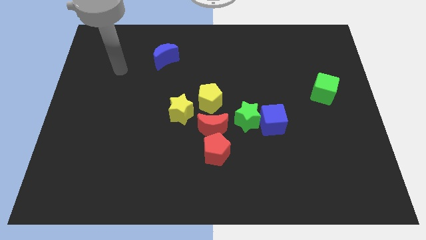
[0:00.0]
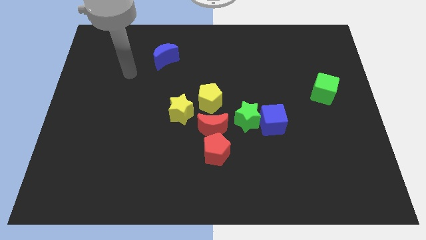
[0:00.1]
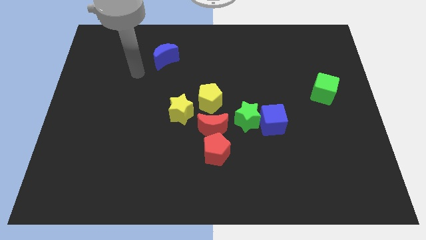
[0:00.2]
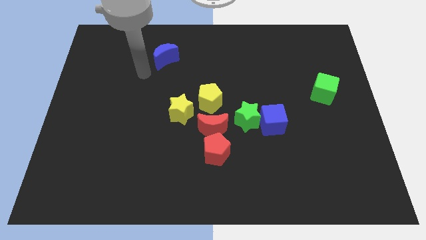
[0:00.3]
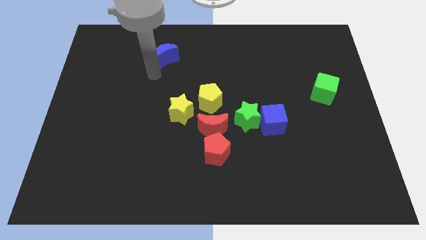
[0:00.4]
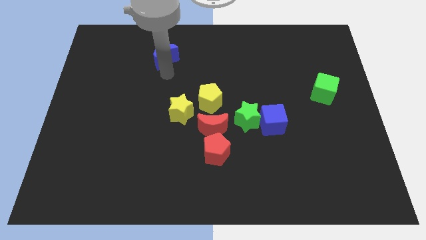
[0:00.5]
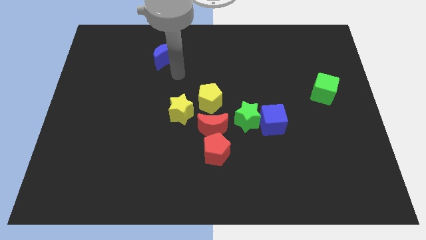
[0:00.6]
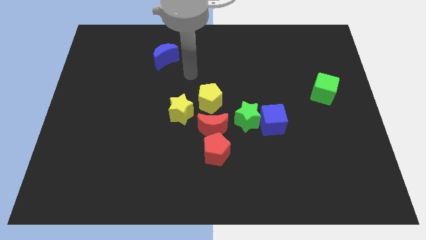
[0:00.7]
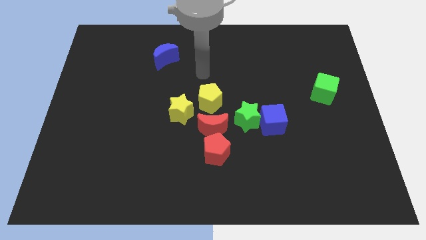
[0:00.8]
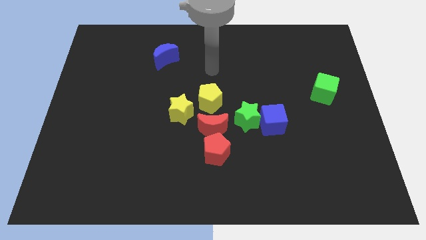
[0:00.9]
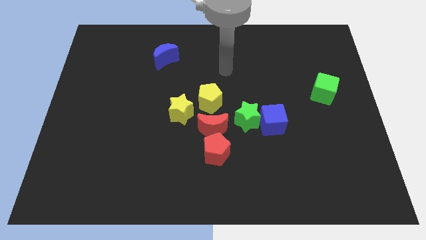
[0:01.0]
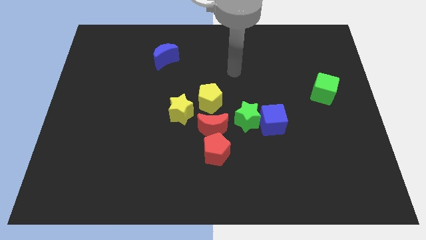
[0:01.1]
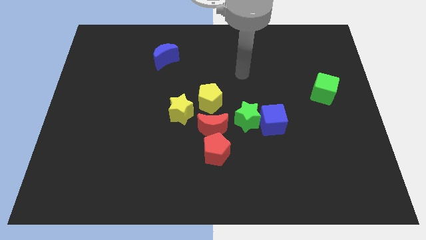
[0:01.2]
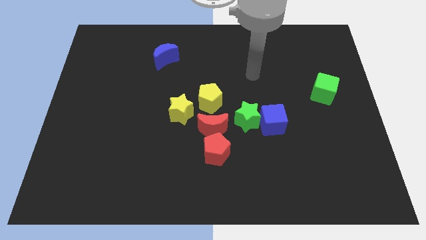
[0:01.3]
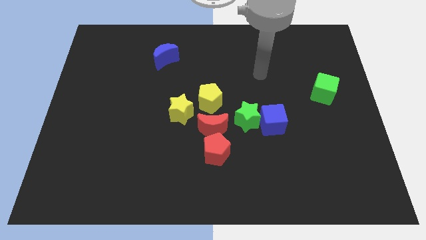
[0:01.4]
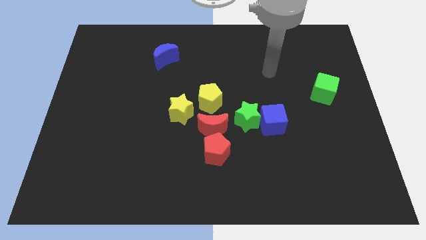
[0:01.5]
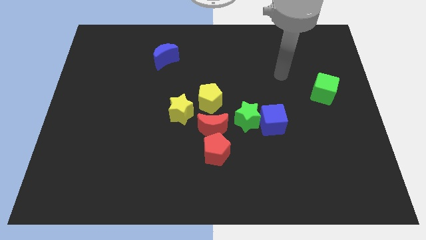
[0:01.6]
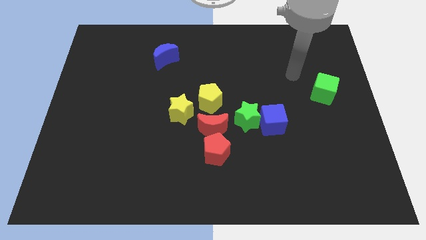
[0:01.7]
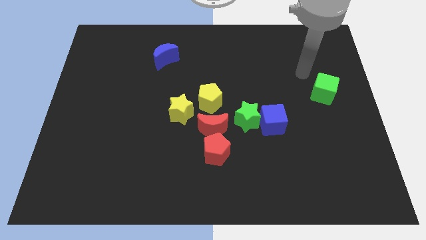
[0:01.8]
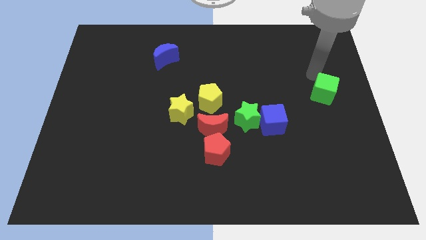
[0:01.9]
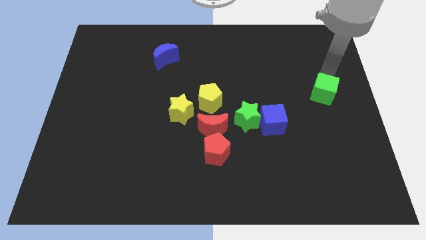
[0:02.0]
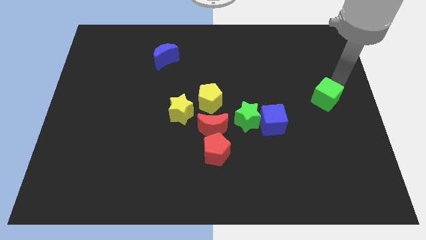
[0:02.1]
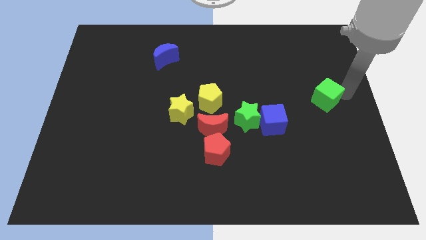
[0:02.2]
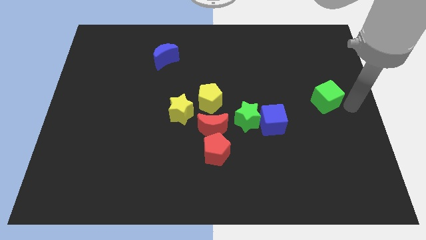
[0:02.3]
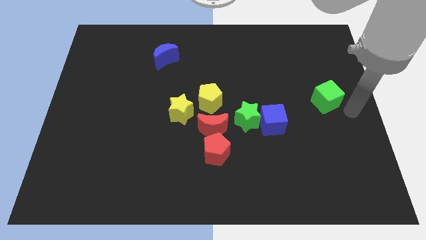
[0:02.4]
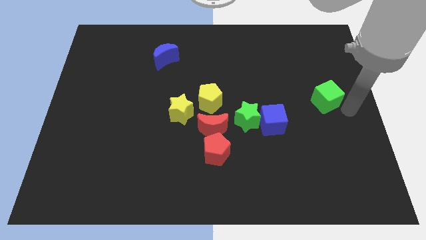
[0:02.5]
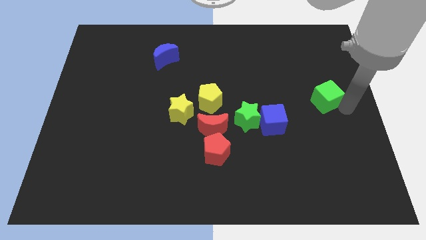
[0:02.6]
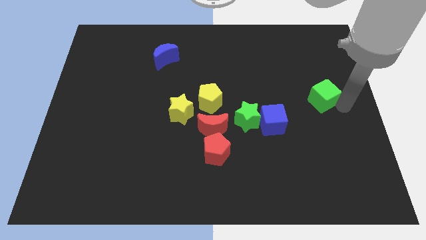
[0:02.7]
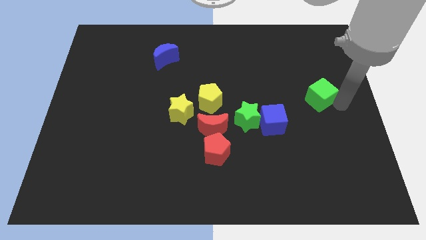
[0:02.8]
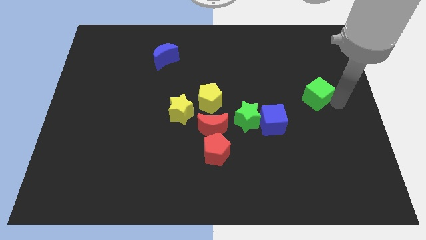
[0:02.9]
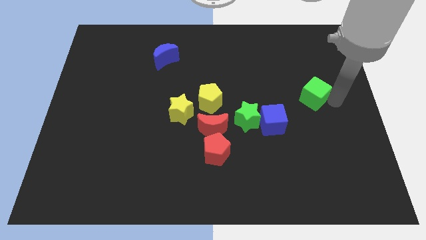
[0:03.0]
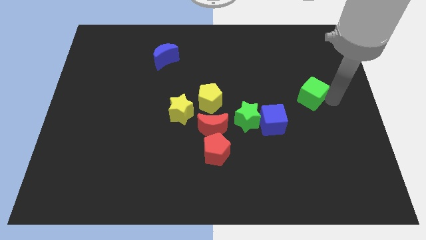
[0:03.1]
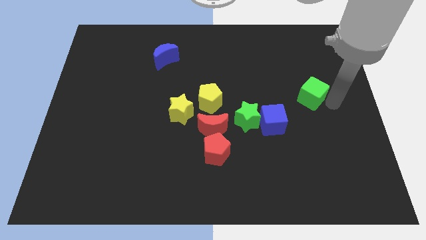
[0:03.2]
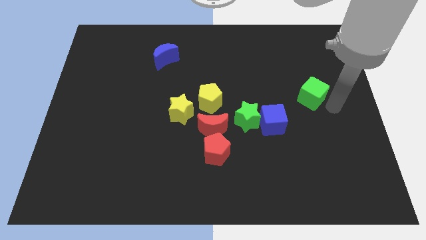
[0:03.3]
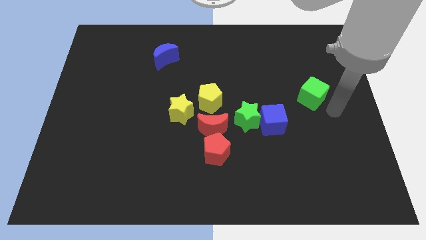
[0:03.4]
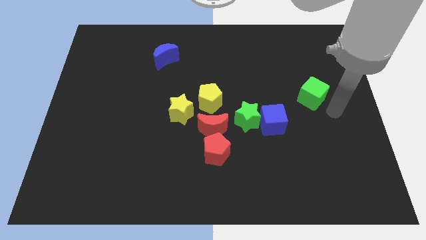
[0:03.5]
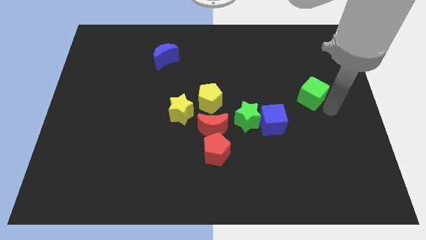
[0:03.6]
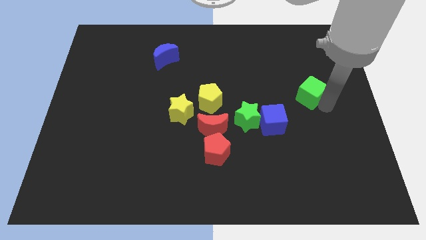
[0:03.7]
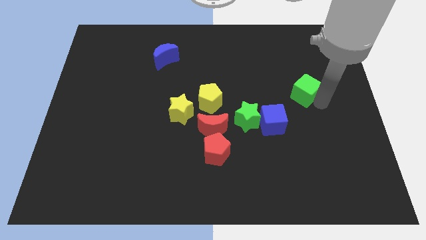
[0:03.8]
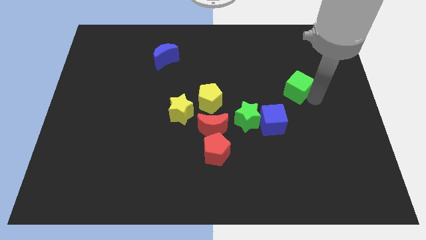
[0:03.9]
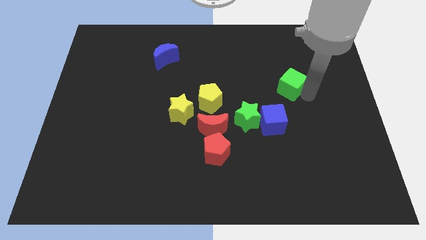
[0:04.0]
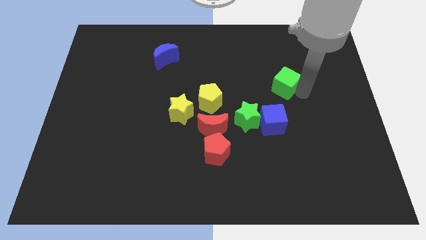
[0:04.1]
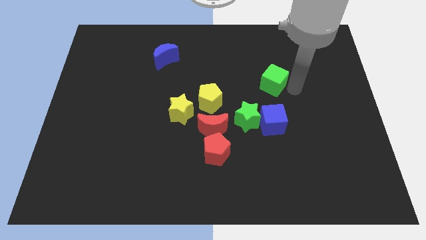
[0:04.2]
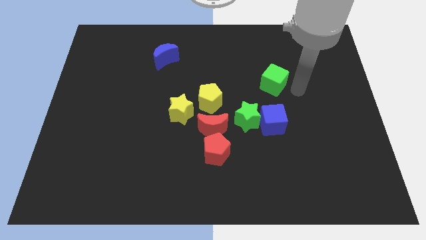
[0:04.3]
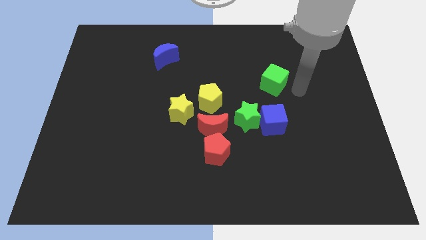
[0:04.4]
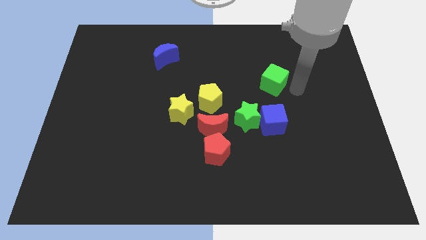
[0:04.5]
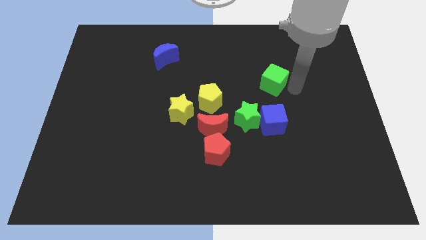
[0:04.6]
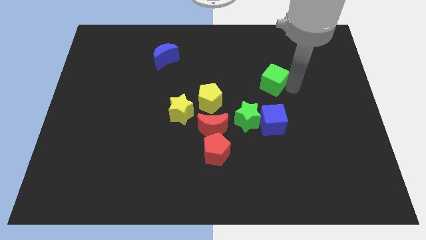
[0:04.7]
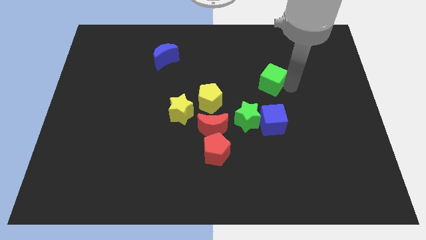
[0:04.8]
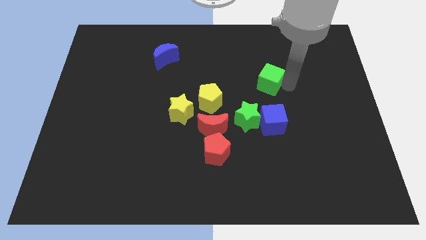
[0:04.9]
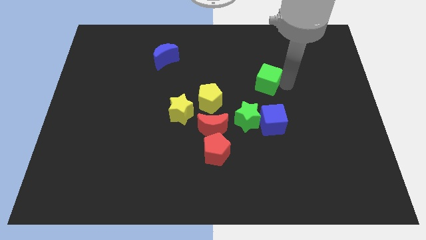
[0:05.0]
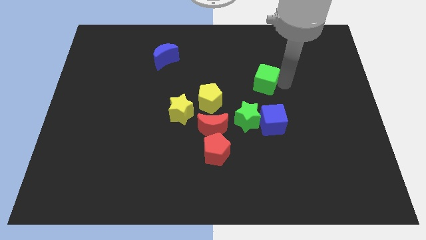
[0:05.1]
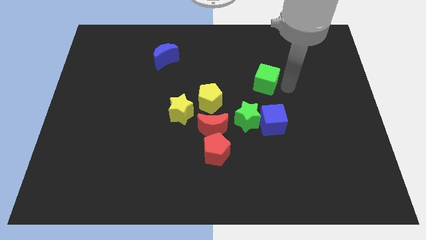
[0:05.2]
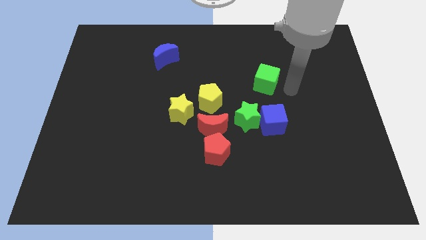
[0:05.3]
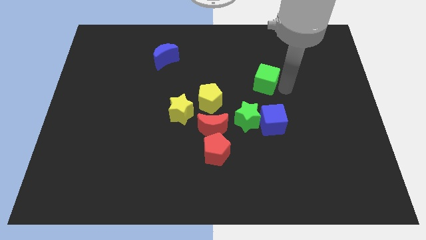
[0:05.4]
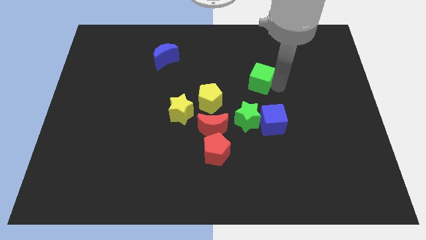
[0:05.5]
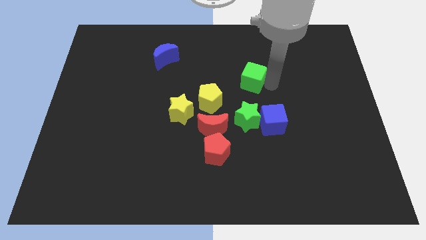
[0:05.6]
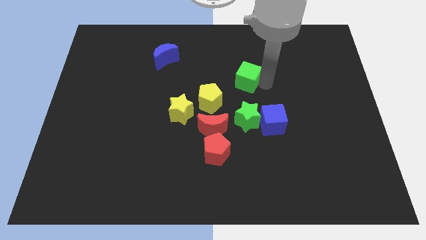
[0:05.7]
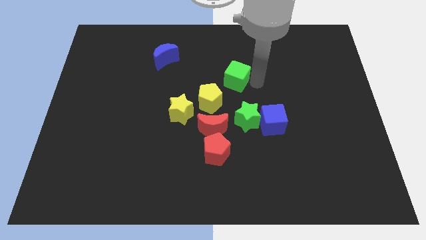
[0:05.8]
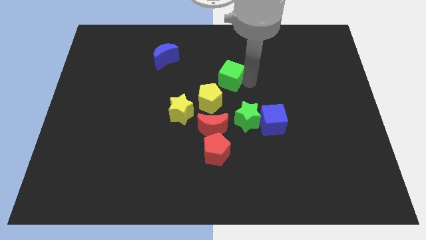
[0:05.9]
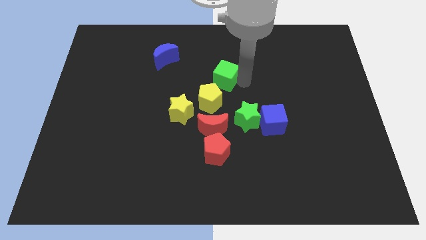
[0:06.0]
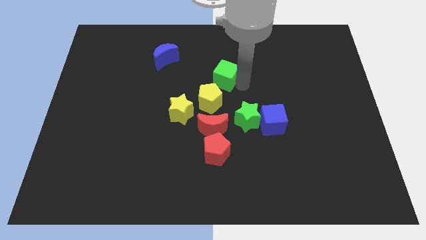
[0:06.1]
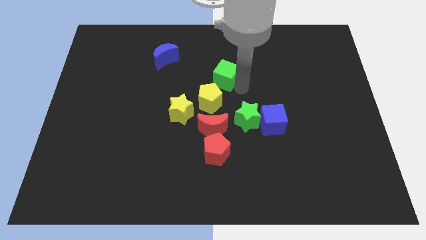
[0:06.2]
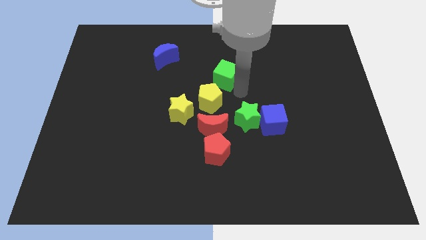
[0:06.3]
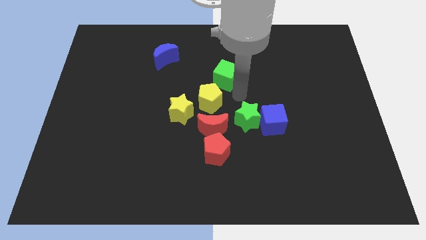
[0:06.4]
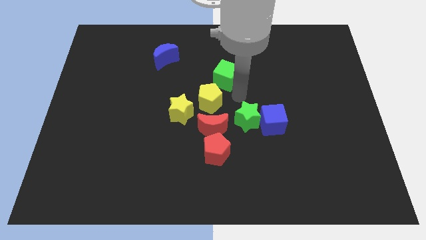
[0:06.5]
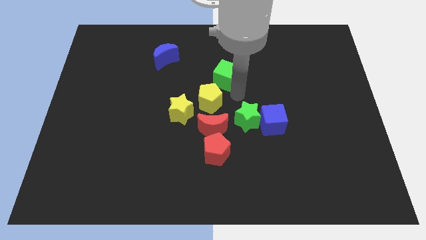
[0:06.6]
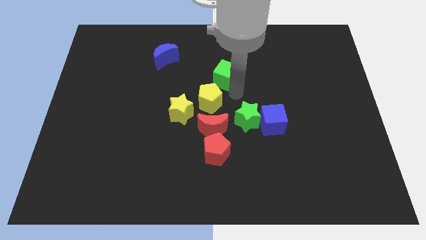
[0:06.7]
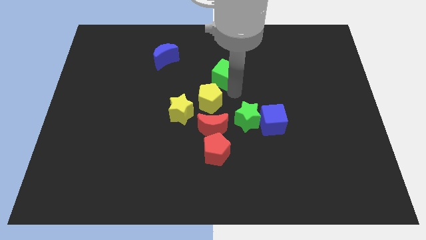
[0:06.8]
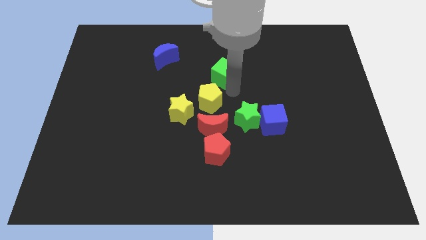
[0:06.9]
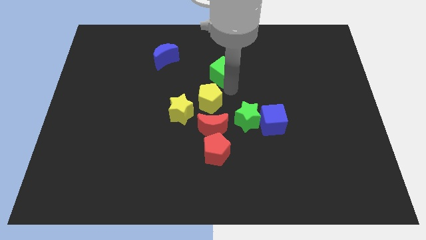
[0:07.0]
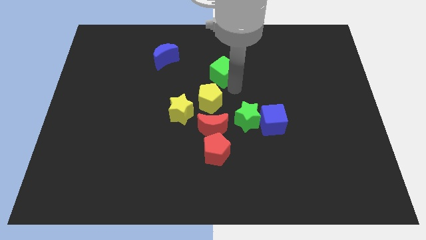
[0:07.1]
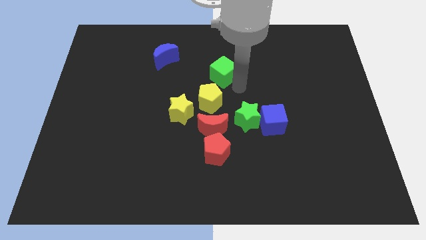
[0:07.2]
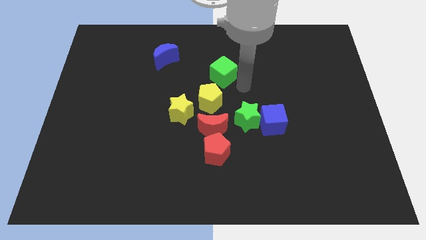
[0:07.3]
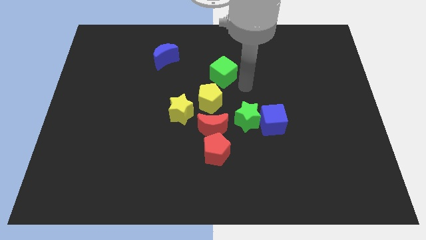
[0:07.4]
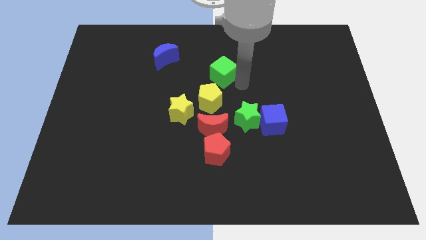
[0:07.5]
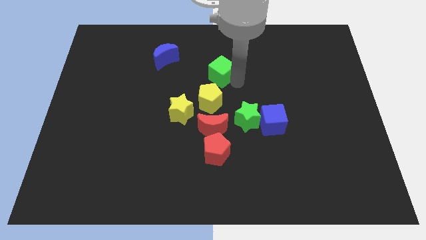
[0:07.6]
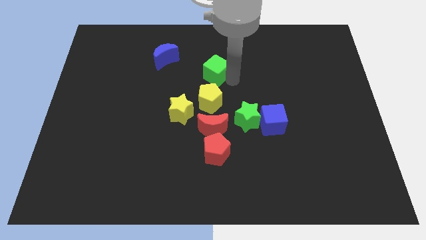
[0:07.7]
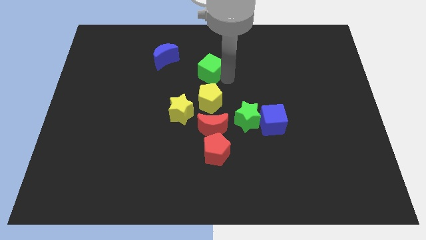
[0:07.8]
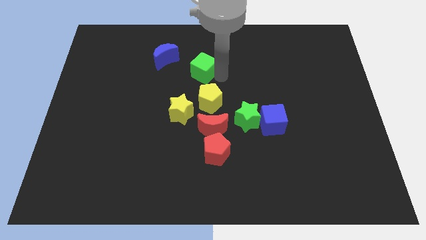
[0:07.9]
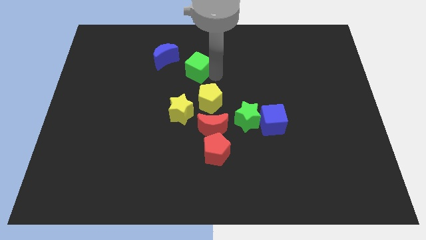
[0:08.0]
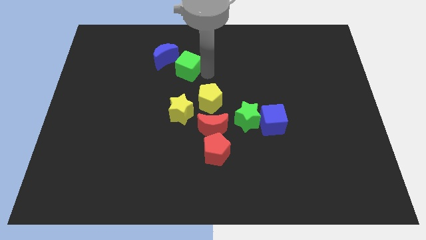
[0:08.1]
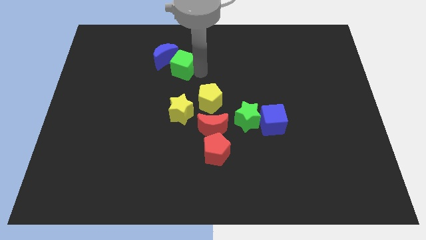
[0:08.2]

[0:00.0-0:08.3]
put the green cube to the blue moon
